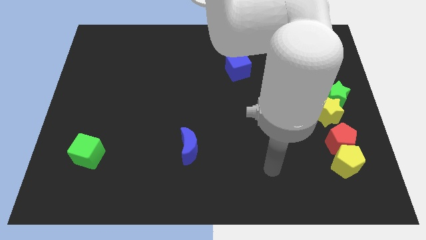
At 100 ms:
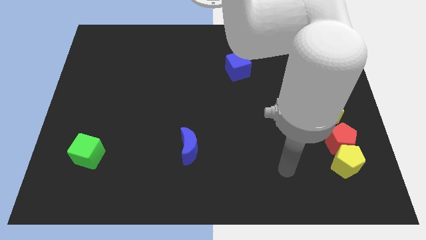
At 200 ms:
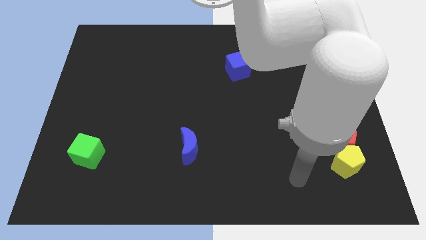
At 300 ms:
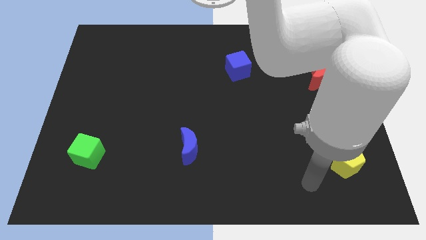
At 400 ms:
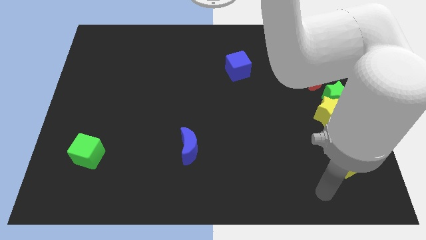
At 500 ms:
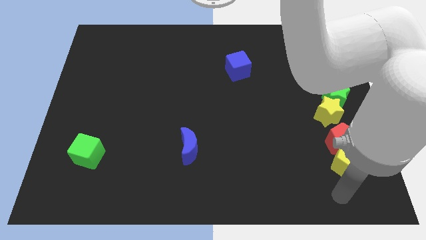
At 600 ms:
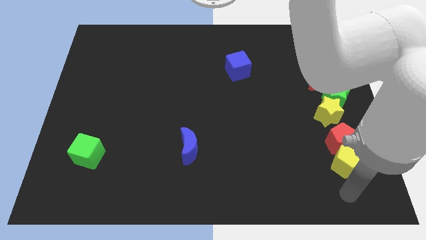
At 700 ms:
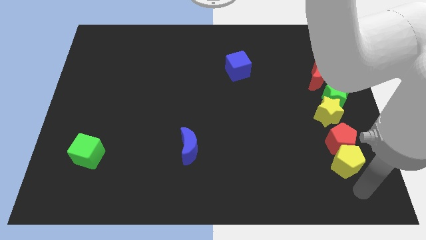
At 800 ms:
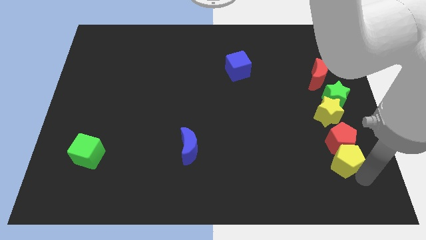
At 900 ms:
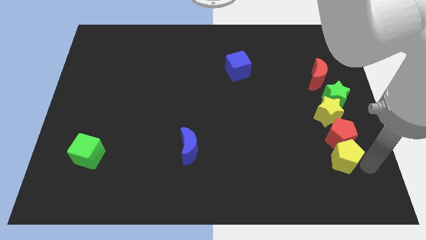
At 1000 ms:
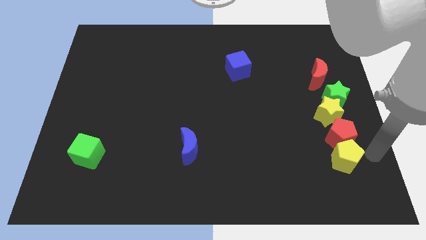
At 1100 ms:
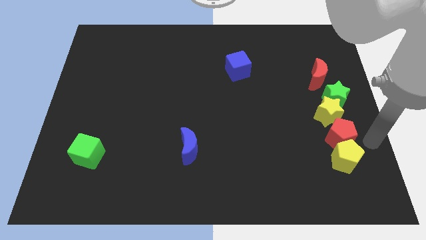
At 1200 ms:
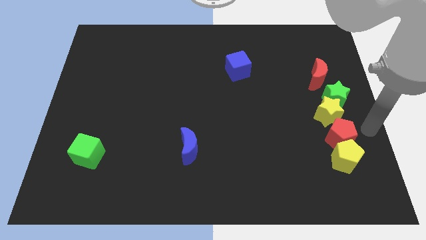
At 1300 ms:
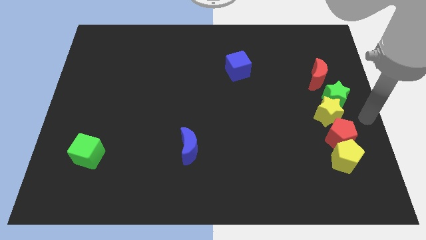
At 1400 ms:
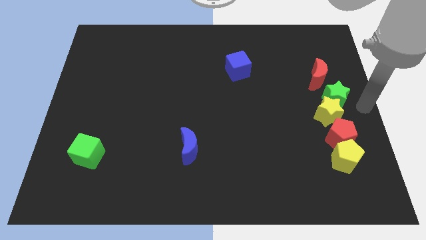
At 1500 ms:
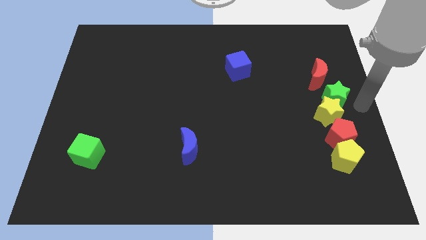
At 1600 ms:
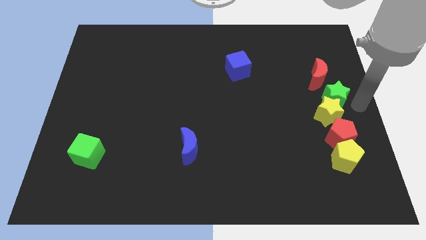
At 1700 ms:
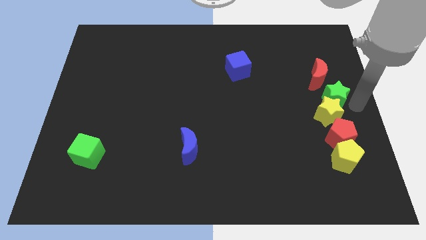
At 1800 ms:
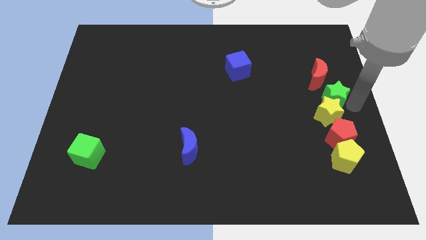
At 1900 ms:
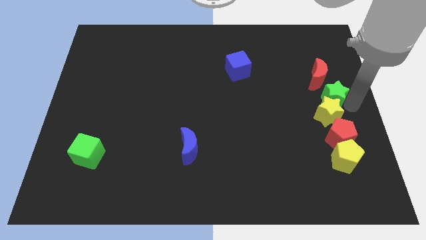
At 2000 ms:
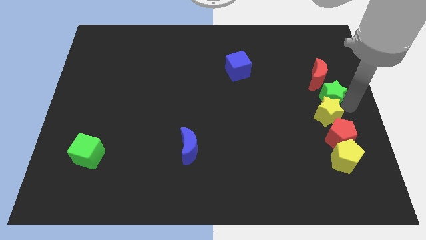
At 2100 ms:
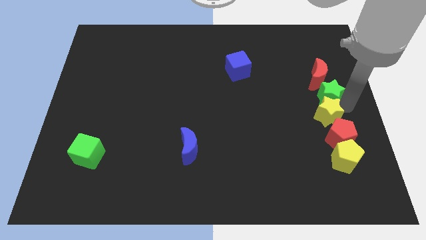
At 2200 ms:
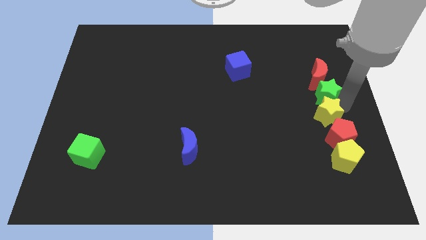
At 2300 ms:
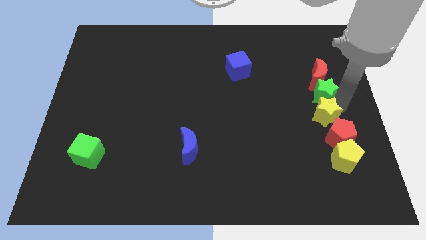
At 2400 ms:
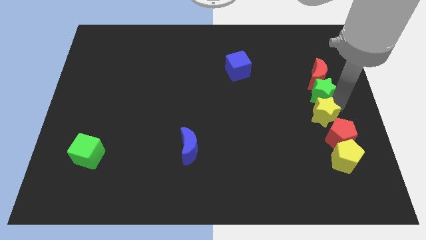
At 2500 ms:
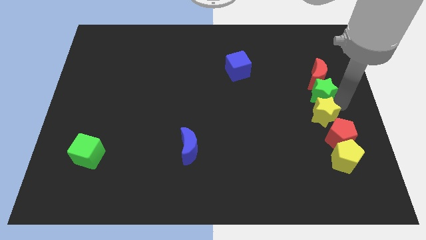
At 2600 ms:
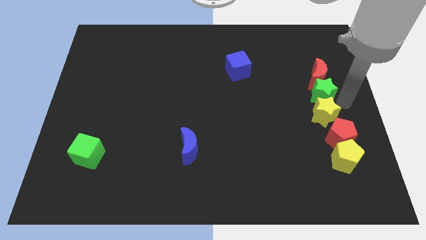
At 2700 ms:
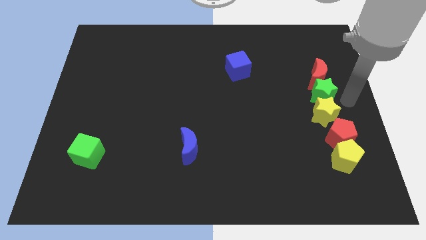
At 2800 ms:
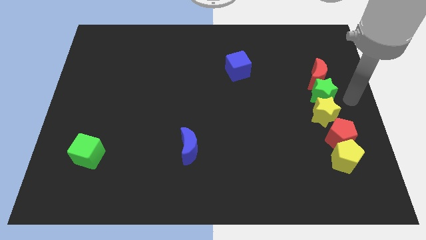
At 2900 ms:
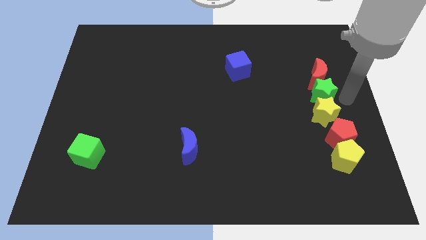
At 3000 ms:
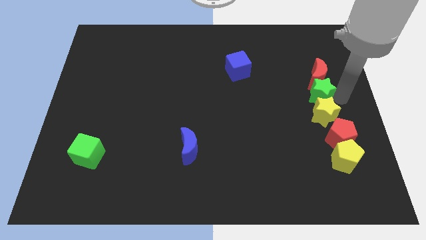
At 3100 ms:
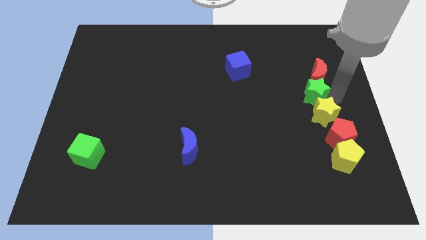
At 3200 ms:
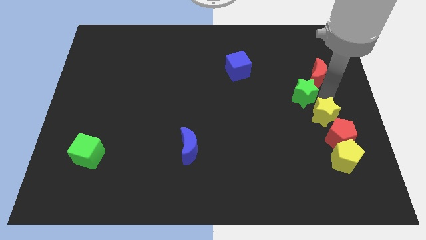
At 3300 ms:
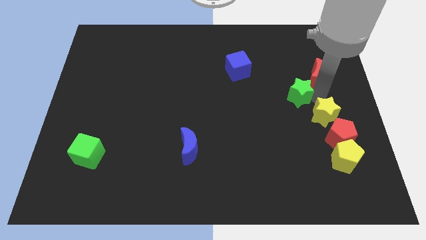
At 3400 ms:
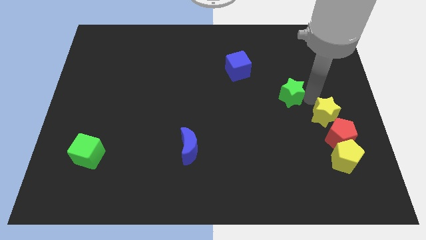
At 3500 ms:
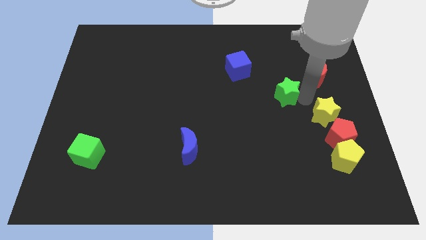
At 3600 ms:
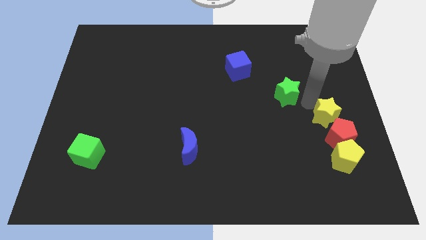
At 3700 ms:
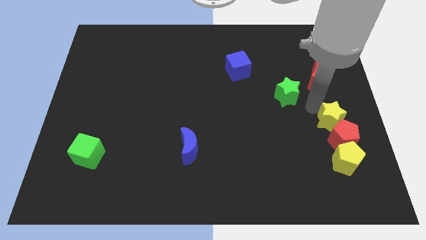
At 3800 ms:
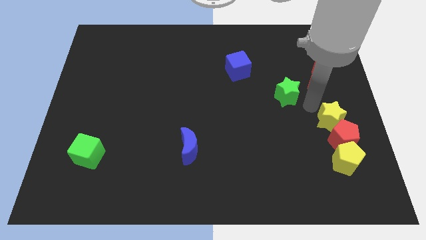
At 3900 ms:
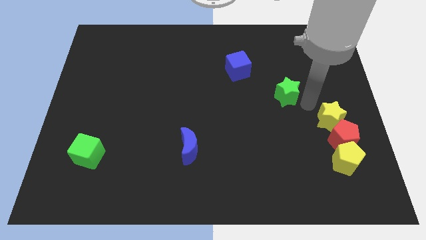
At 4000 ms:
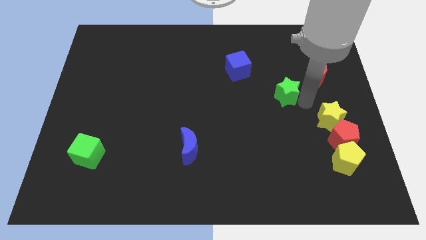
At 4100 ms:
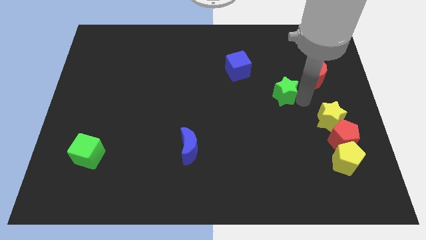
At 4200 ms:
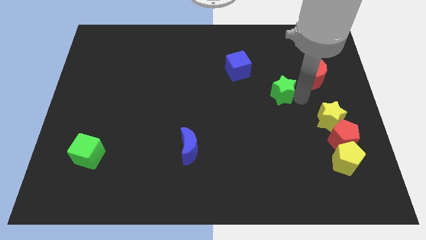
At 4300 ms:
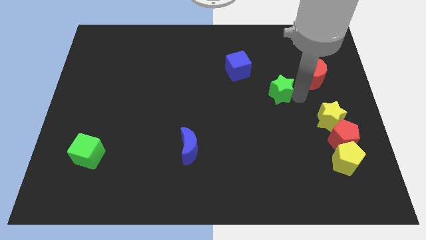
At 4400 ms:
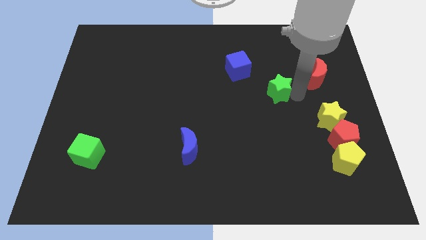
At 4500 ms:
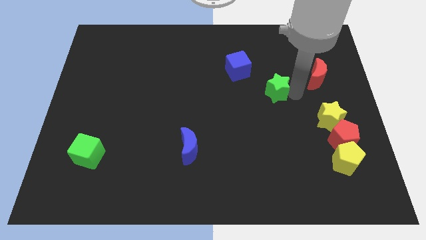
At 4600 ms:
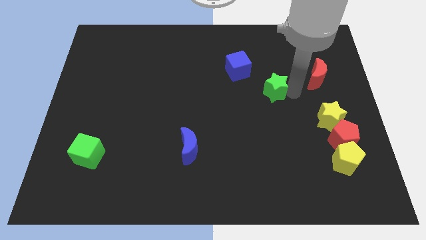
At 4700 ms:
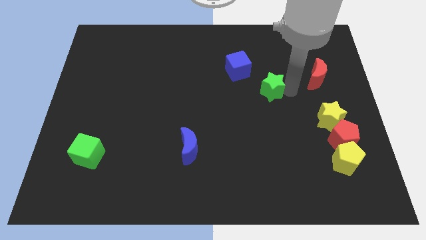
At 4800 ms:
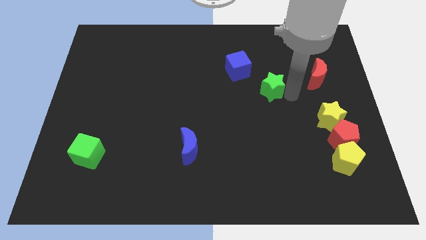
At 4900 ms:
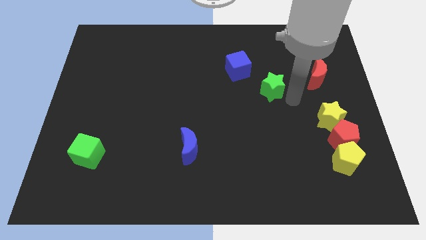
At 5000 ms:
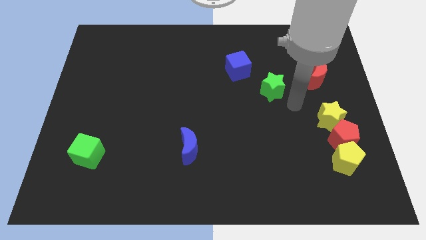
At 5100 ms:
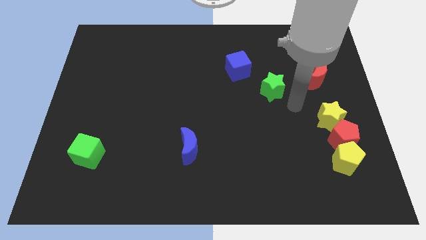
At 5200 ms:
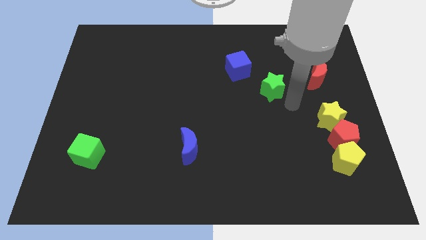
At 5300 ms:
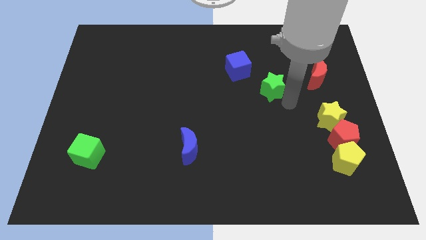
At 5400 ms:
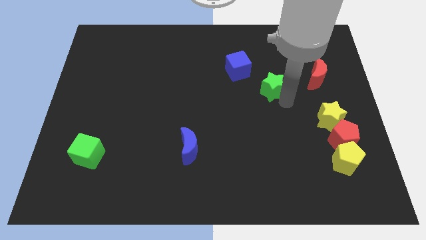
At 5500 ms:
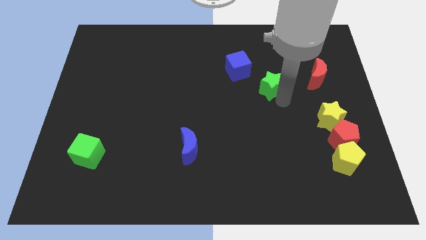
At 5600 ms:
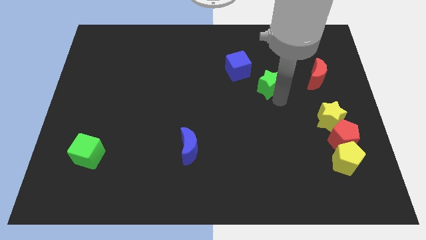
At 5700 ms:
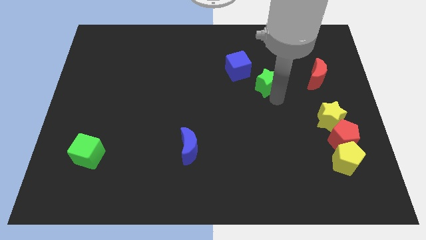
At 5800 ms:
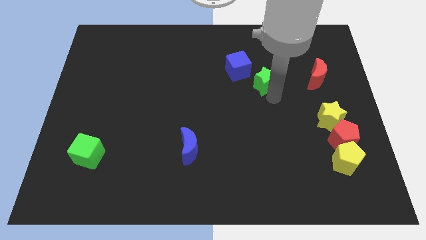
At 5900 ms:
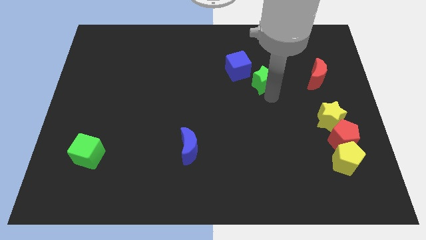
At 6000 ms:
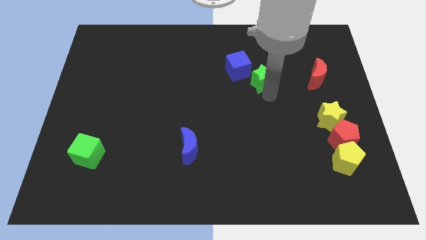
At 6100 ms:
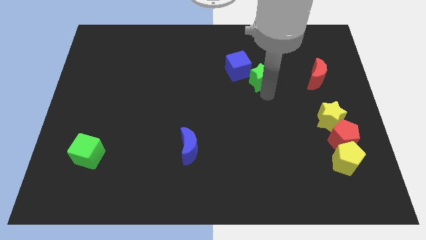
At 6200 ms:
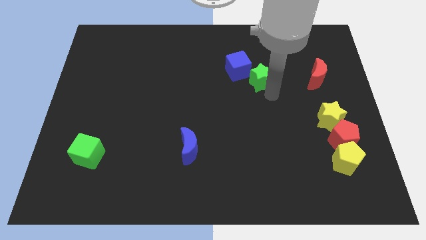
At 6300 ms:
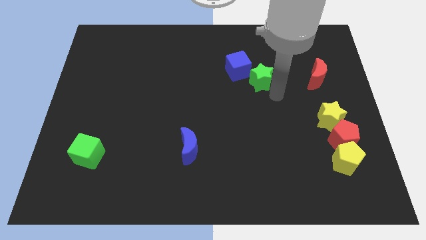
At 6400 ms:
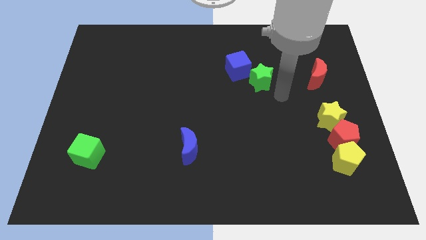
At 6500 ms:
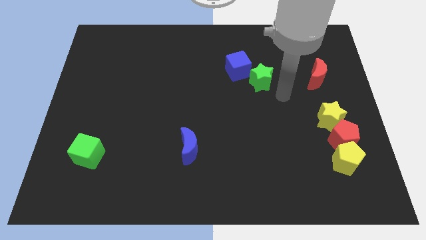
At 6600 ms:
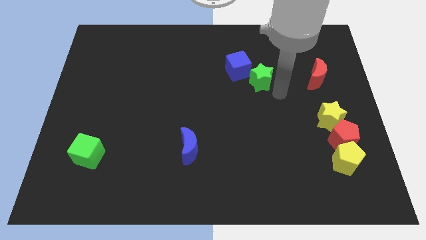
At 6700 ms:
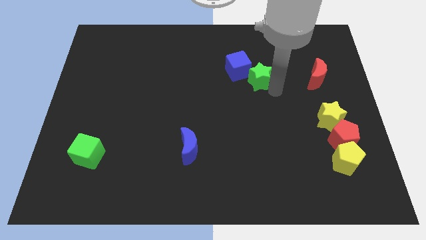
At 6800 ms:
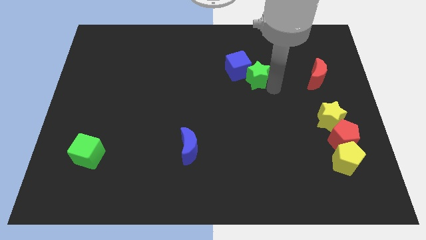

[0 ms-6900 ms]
push the green star towards the blue cube
